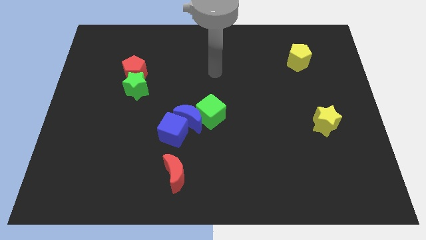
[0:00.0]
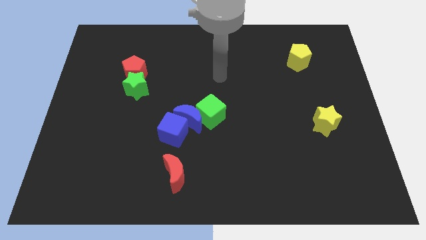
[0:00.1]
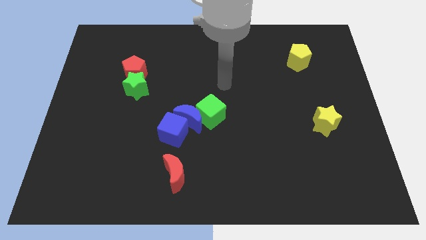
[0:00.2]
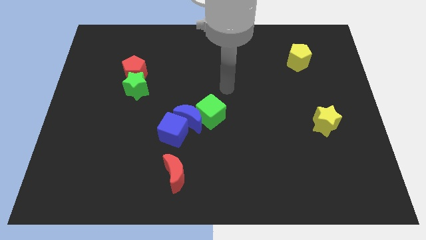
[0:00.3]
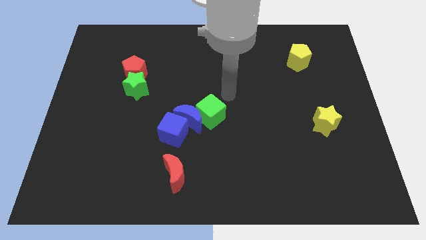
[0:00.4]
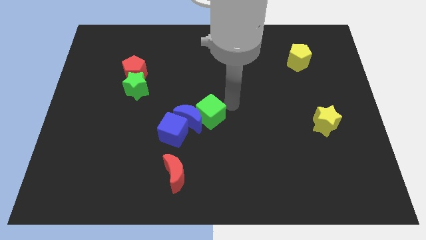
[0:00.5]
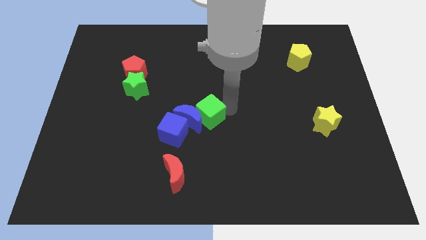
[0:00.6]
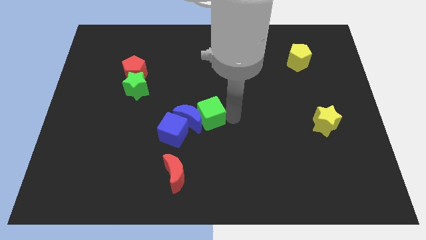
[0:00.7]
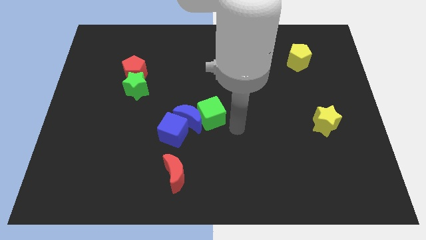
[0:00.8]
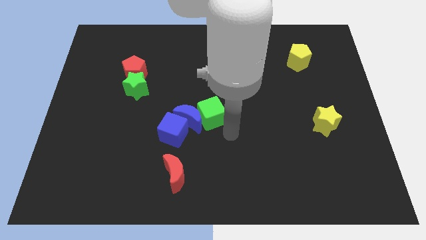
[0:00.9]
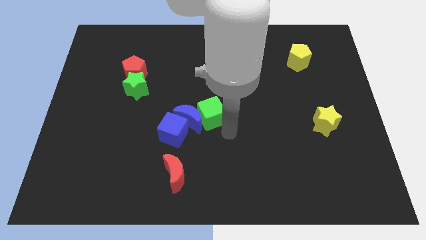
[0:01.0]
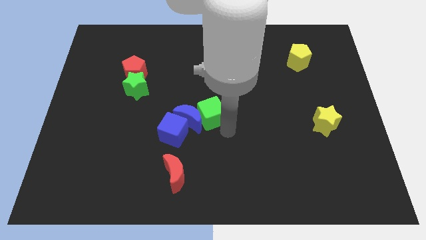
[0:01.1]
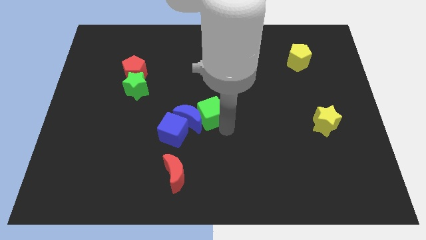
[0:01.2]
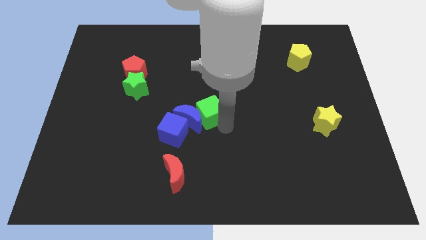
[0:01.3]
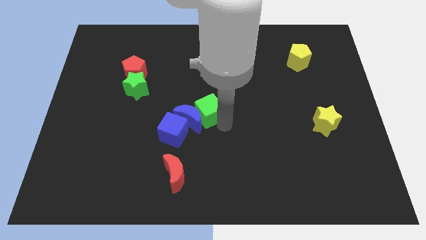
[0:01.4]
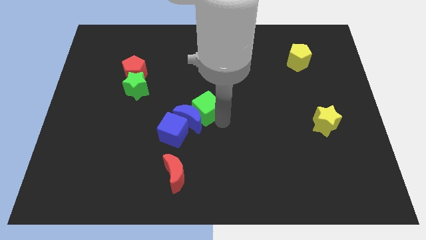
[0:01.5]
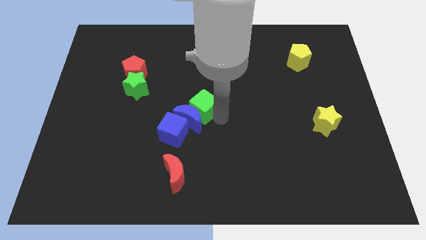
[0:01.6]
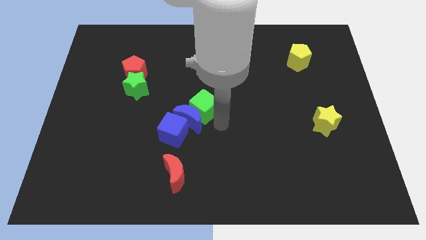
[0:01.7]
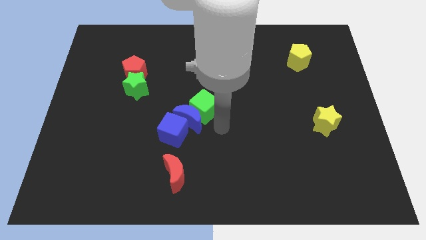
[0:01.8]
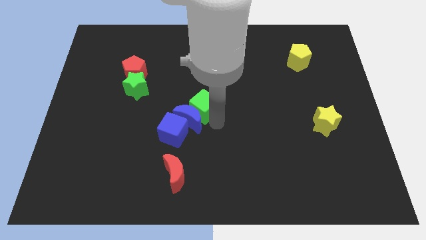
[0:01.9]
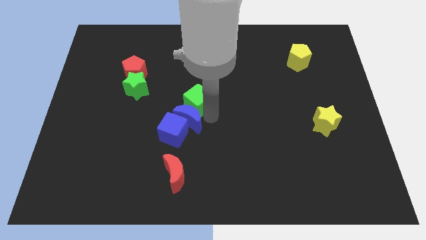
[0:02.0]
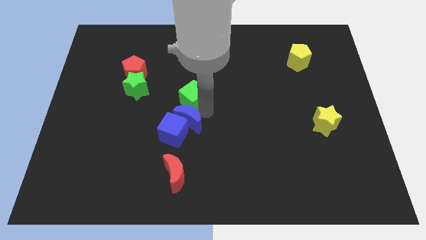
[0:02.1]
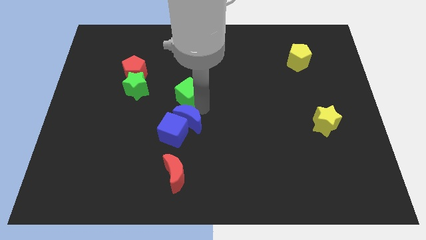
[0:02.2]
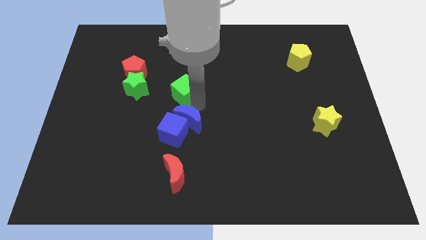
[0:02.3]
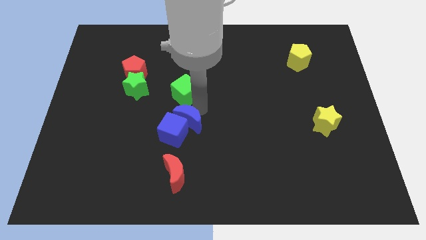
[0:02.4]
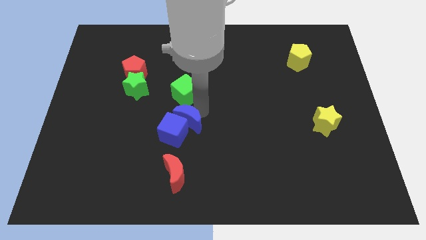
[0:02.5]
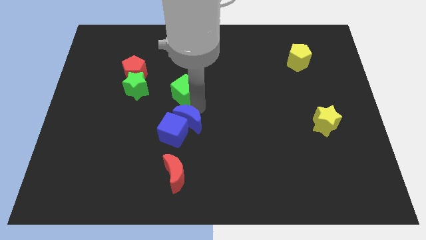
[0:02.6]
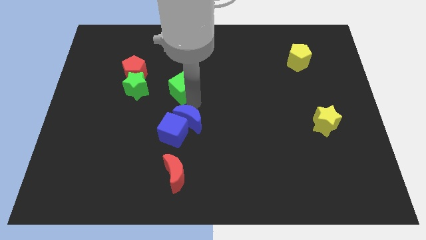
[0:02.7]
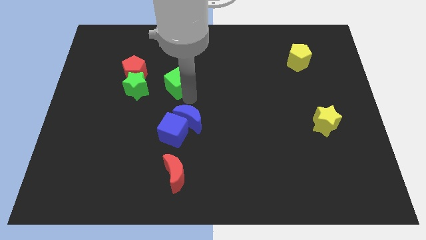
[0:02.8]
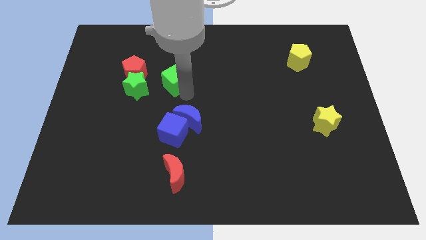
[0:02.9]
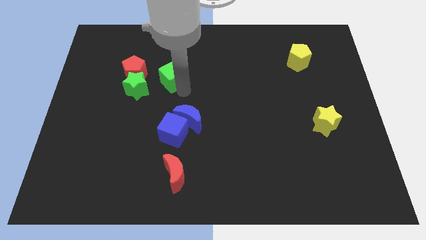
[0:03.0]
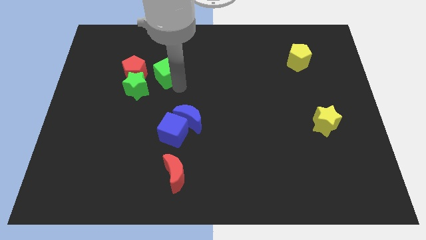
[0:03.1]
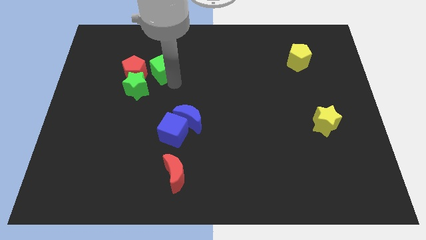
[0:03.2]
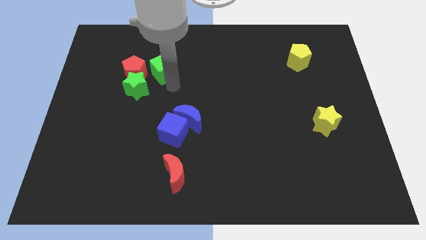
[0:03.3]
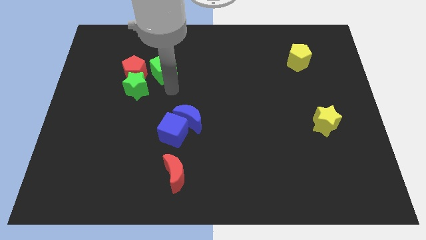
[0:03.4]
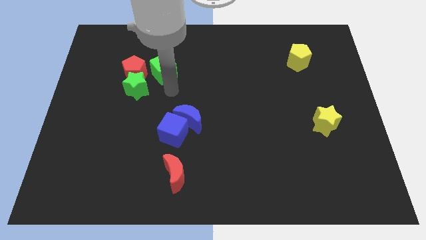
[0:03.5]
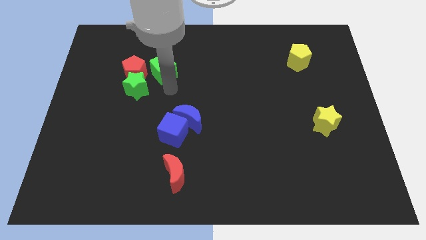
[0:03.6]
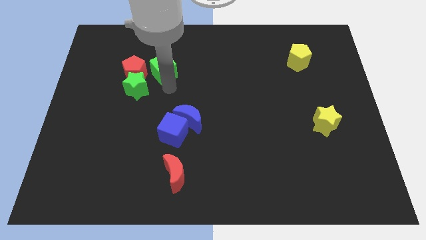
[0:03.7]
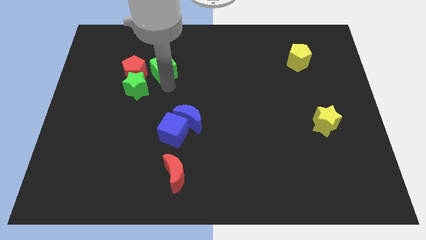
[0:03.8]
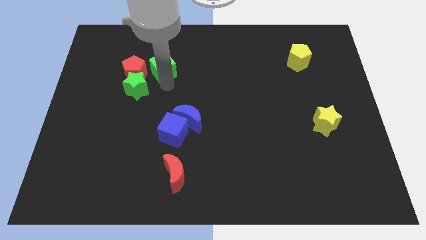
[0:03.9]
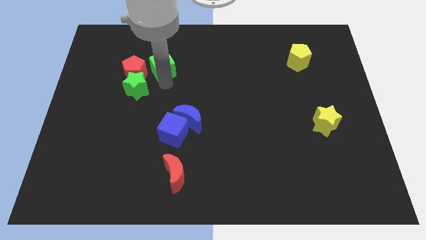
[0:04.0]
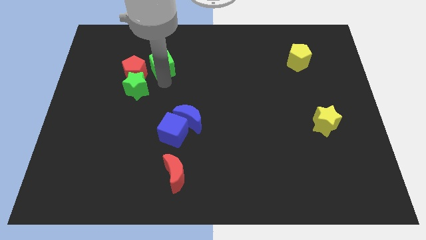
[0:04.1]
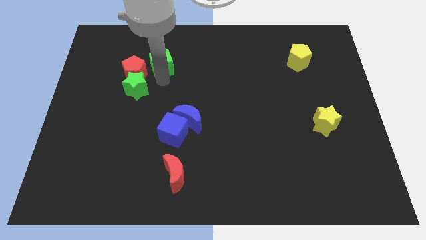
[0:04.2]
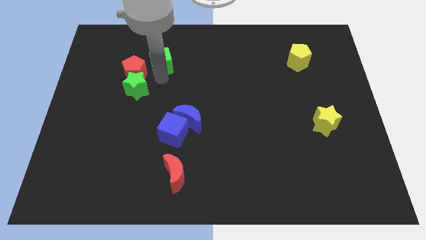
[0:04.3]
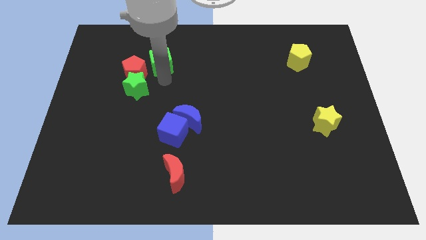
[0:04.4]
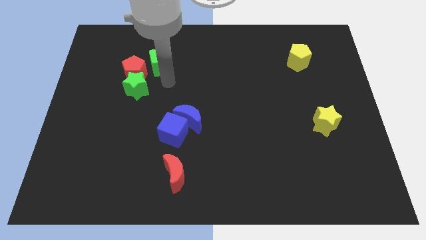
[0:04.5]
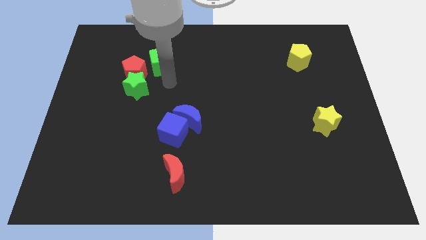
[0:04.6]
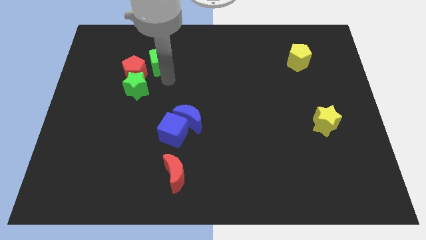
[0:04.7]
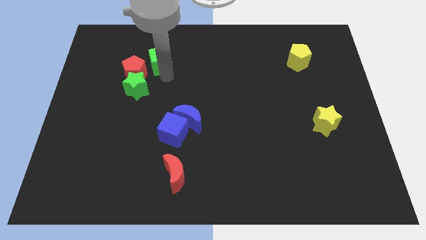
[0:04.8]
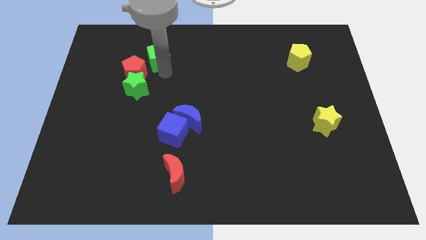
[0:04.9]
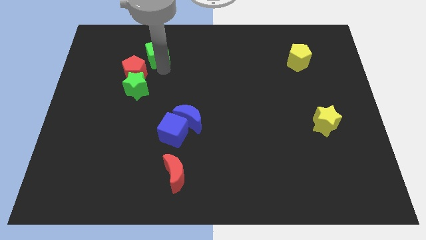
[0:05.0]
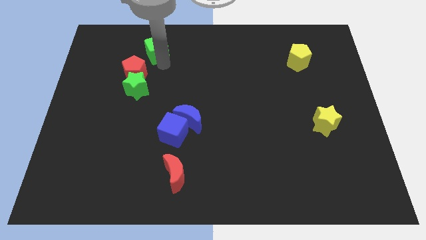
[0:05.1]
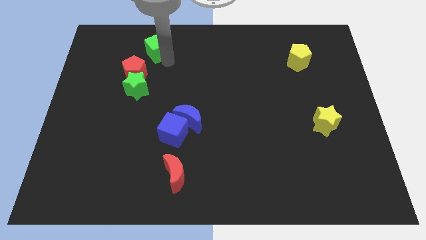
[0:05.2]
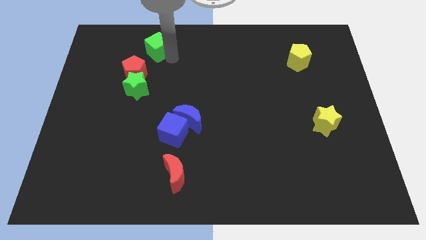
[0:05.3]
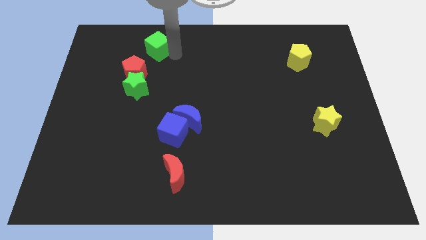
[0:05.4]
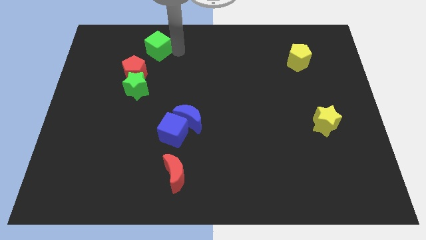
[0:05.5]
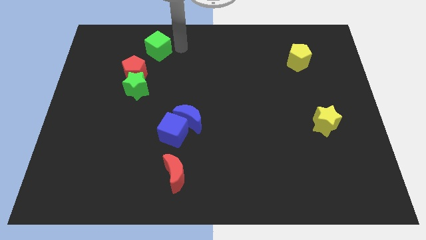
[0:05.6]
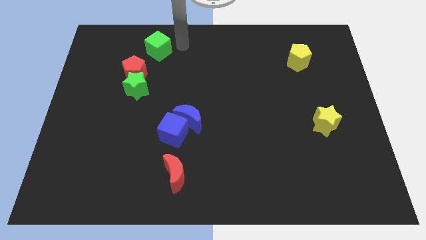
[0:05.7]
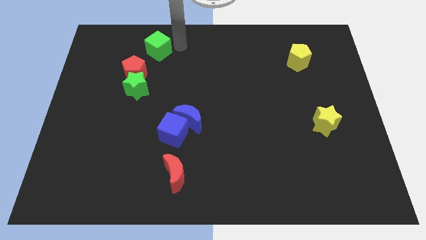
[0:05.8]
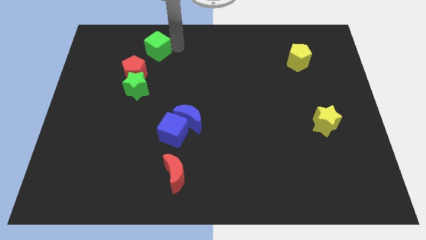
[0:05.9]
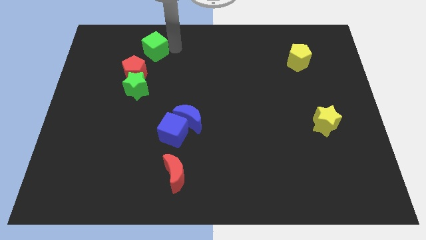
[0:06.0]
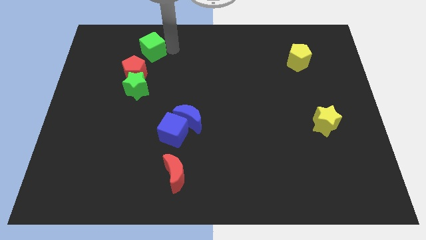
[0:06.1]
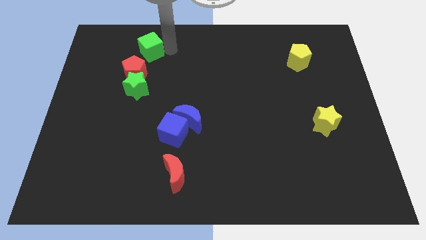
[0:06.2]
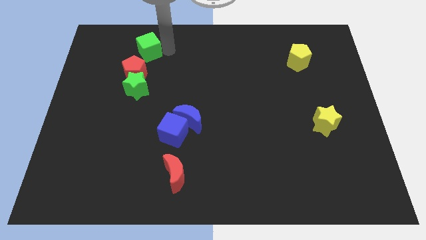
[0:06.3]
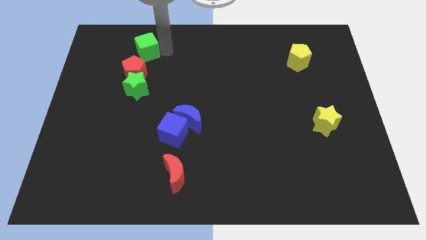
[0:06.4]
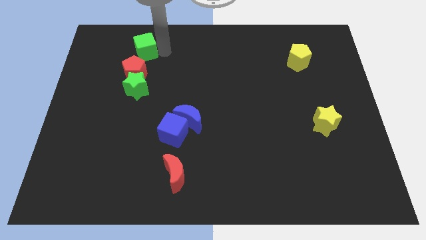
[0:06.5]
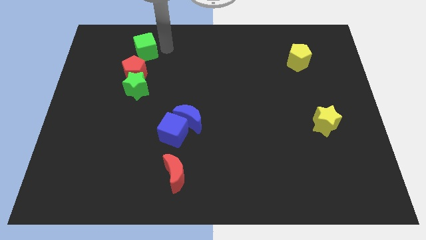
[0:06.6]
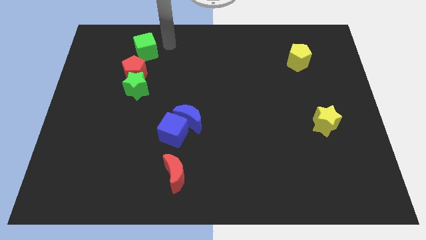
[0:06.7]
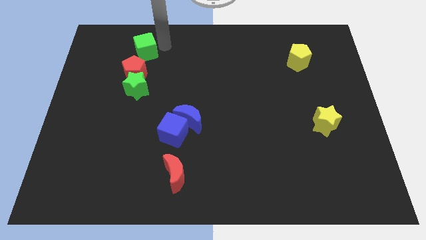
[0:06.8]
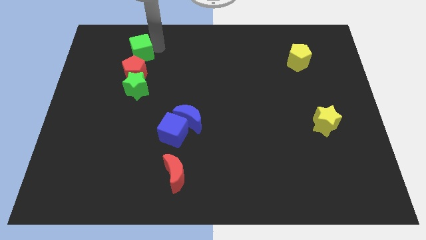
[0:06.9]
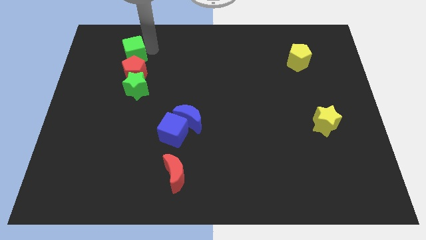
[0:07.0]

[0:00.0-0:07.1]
push the green cube diagonally up and to the left of the red pentagon
